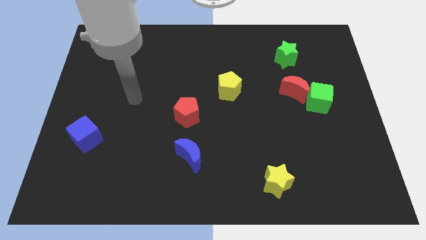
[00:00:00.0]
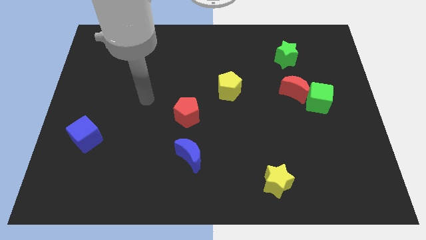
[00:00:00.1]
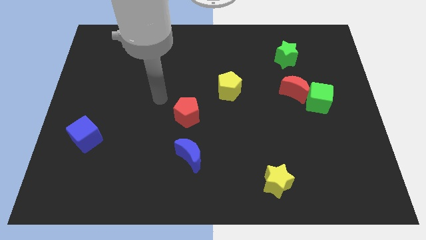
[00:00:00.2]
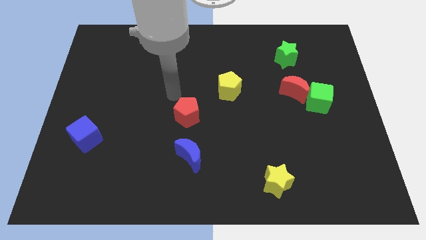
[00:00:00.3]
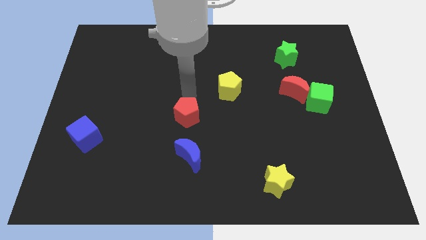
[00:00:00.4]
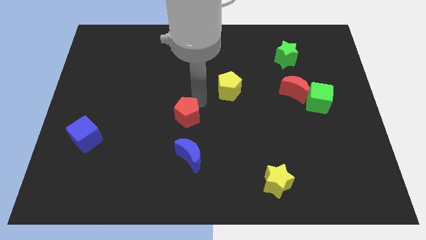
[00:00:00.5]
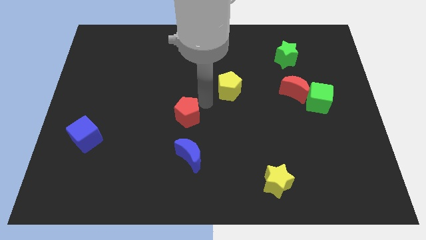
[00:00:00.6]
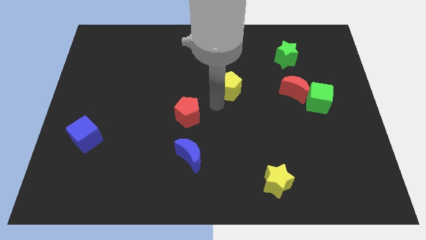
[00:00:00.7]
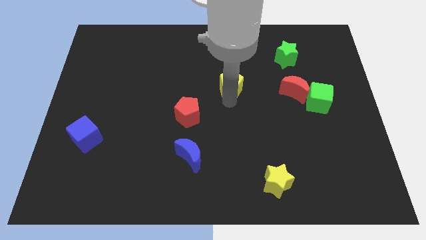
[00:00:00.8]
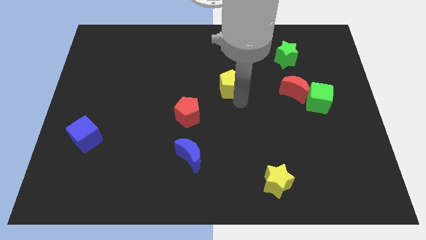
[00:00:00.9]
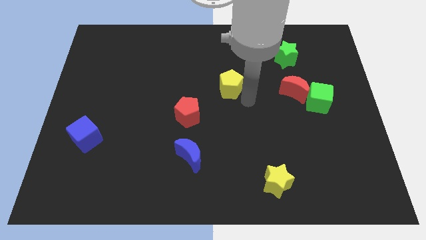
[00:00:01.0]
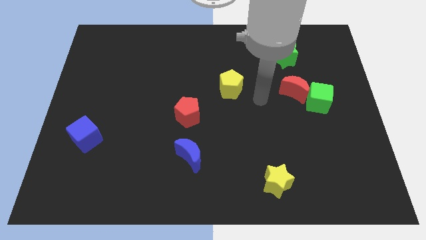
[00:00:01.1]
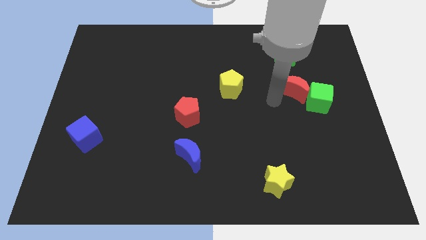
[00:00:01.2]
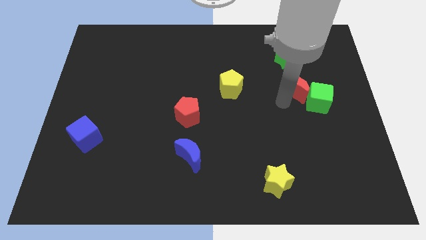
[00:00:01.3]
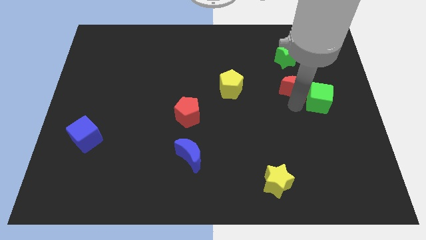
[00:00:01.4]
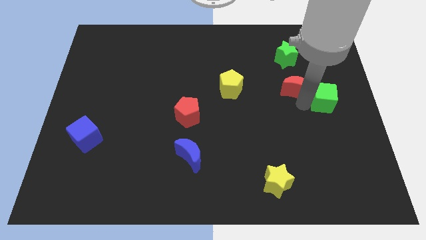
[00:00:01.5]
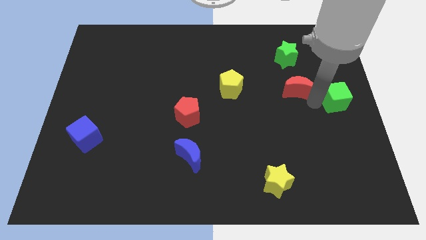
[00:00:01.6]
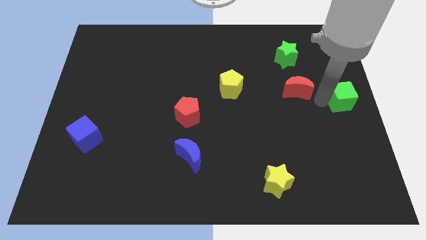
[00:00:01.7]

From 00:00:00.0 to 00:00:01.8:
pull the red moon apart from the green cube

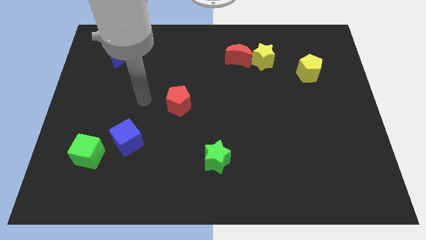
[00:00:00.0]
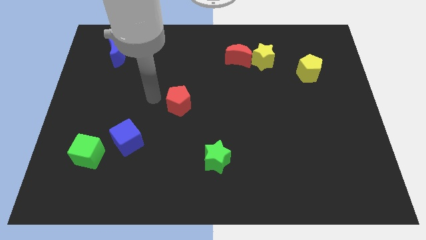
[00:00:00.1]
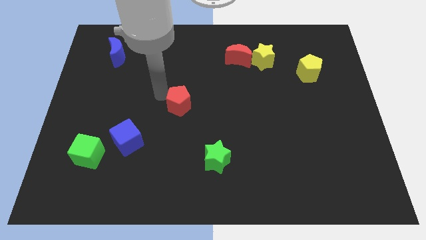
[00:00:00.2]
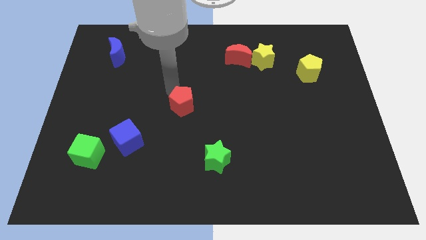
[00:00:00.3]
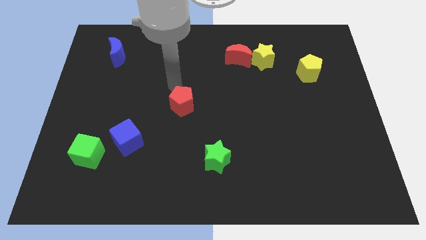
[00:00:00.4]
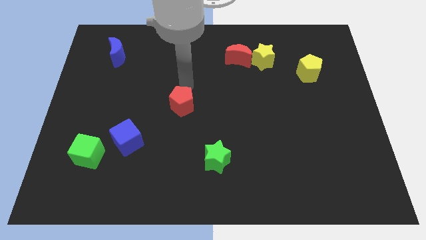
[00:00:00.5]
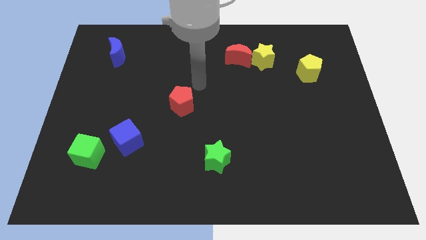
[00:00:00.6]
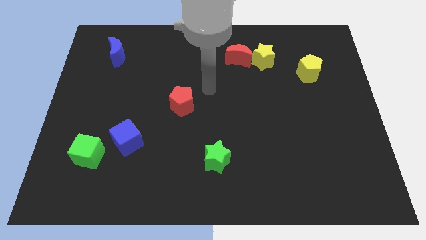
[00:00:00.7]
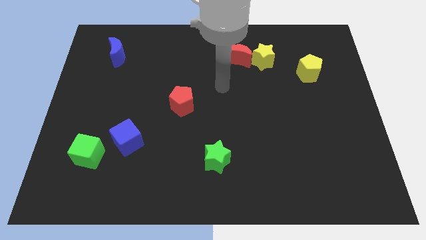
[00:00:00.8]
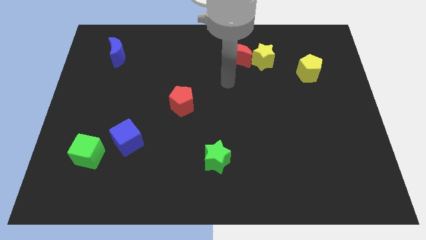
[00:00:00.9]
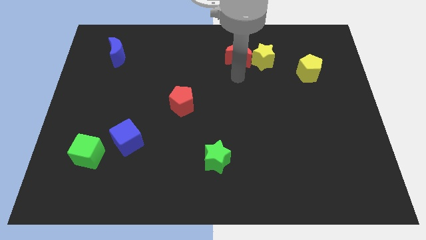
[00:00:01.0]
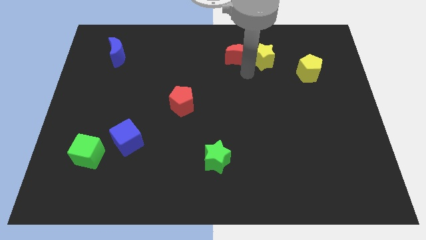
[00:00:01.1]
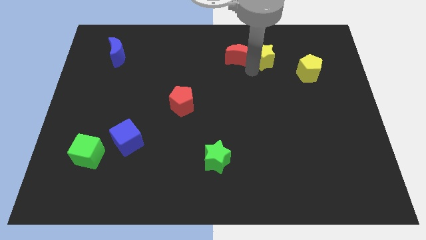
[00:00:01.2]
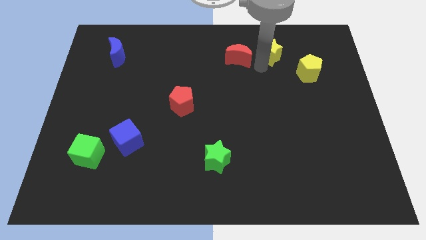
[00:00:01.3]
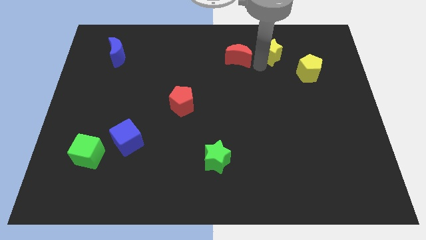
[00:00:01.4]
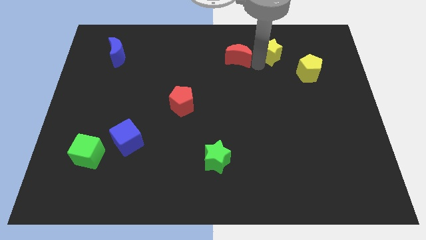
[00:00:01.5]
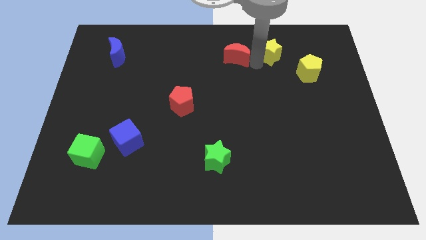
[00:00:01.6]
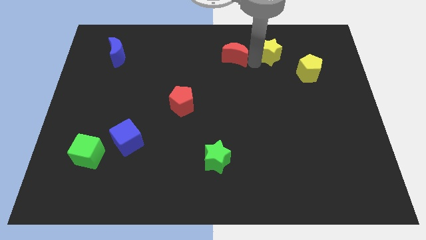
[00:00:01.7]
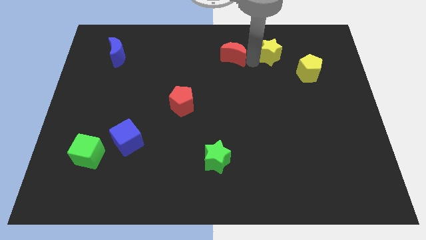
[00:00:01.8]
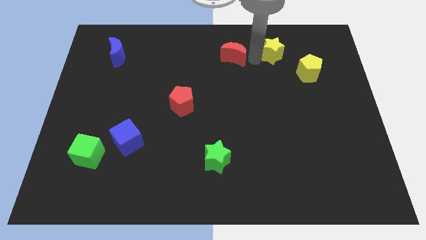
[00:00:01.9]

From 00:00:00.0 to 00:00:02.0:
pull the red moon apart from the yellow star

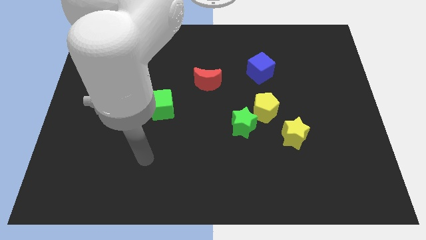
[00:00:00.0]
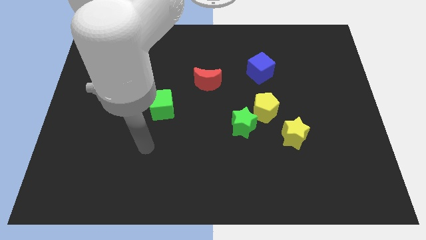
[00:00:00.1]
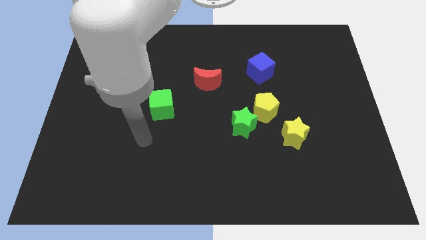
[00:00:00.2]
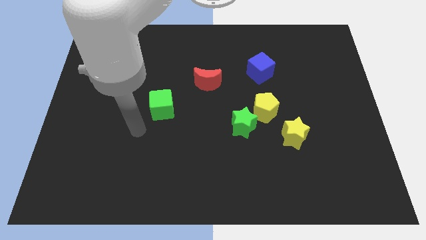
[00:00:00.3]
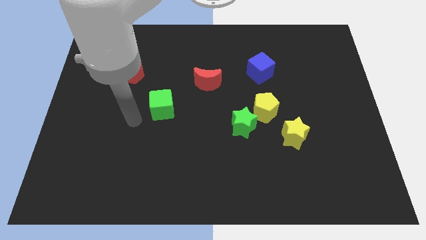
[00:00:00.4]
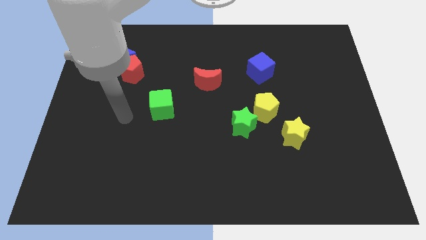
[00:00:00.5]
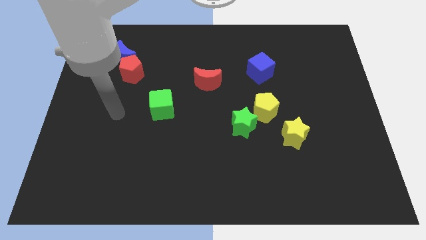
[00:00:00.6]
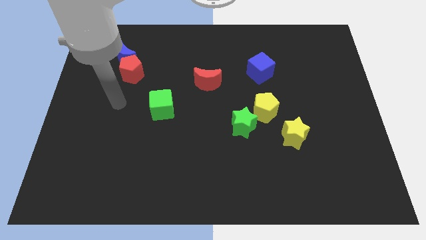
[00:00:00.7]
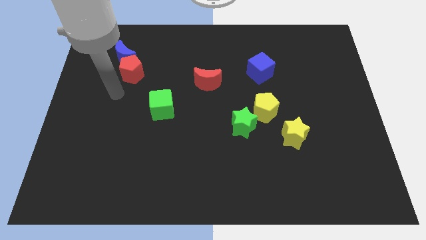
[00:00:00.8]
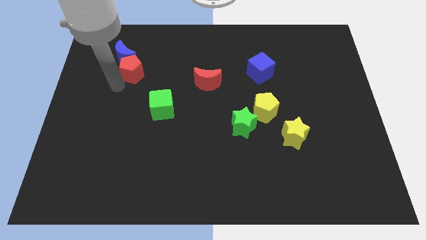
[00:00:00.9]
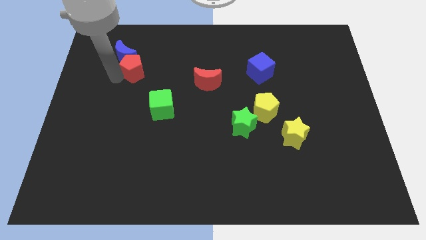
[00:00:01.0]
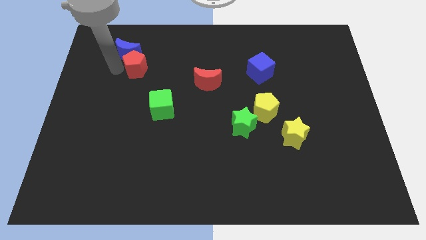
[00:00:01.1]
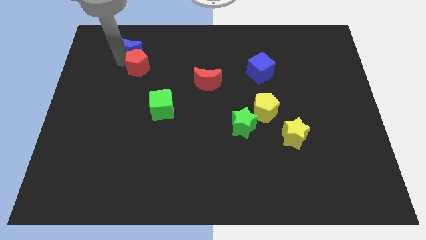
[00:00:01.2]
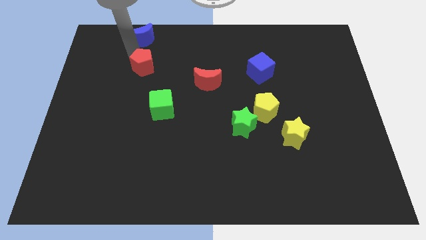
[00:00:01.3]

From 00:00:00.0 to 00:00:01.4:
move the red pentagon away from the blue moon

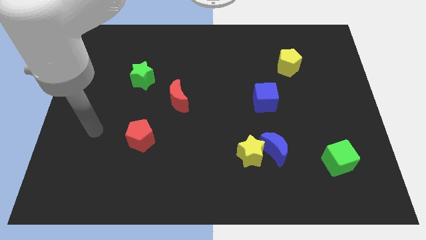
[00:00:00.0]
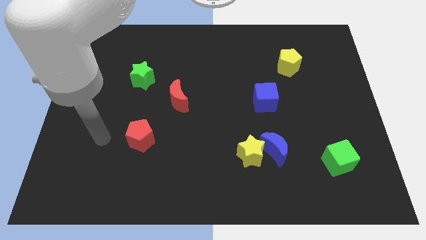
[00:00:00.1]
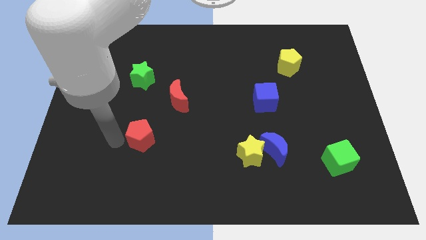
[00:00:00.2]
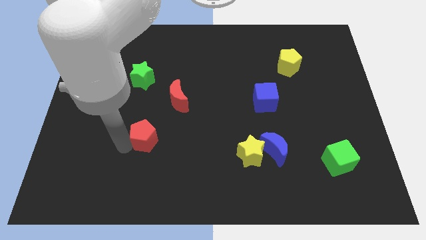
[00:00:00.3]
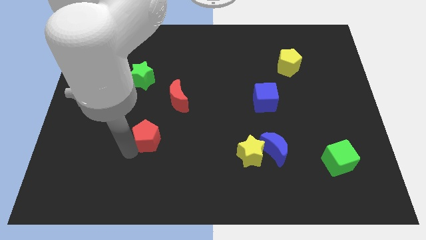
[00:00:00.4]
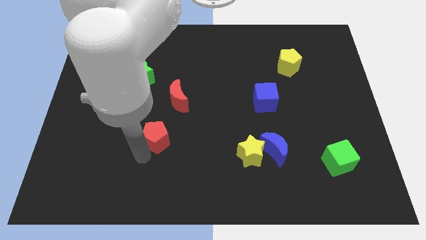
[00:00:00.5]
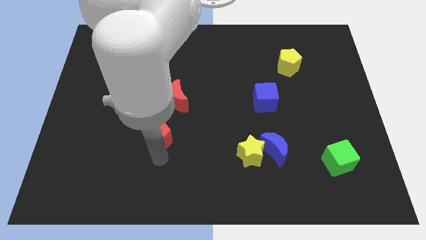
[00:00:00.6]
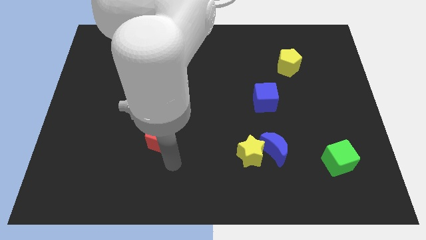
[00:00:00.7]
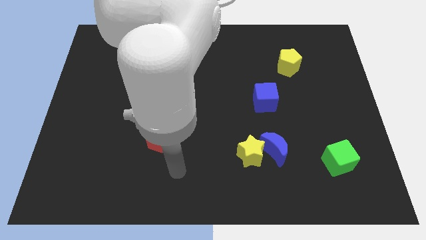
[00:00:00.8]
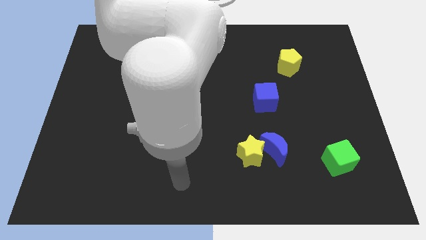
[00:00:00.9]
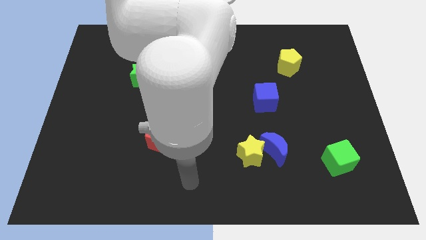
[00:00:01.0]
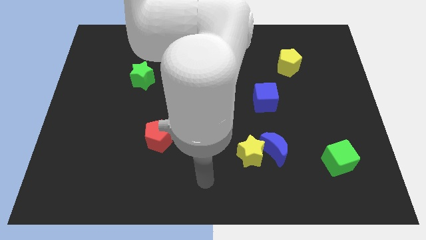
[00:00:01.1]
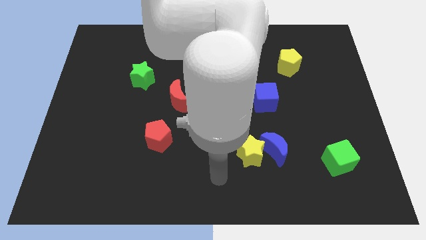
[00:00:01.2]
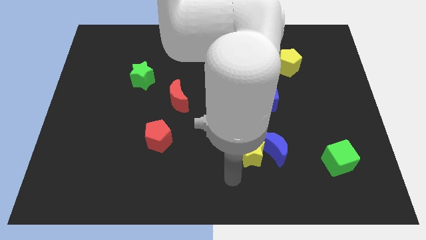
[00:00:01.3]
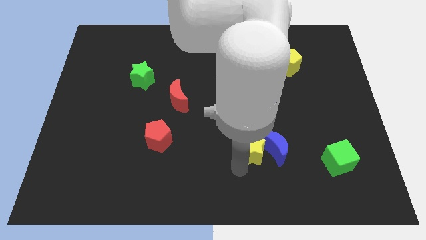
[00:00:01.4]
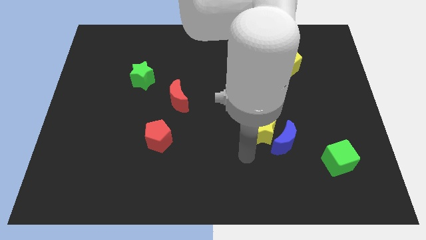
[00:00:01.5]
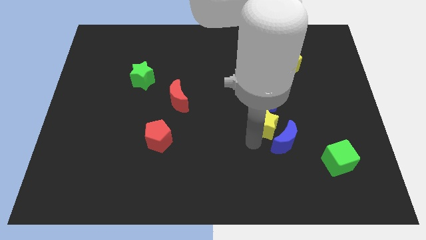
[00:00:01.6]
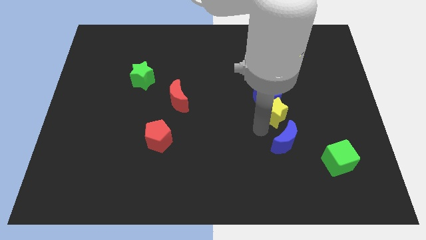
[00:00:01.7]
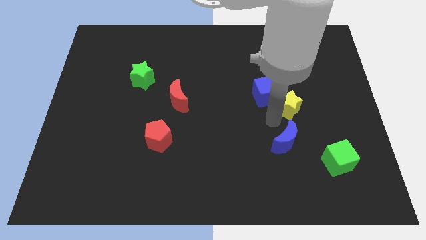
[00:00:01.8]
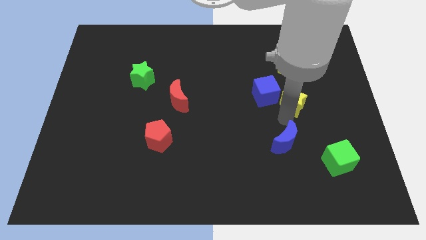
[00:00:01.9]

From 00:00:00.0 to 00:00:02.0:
pull the blue moon apart from the yellow star

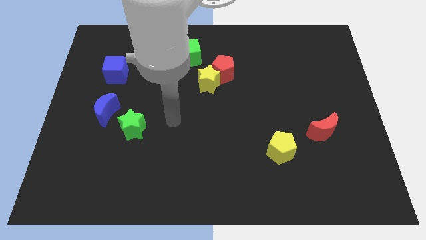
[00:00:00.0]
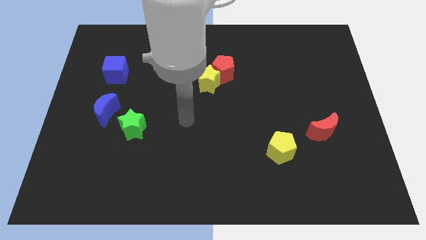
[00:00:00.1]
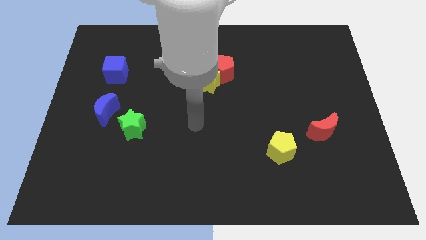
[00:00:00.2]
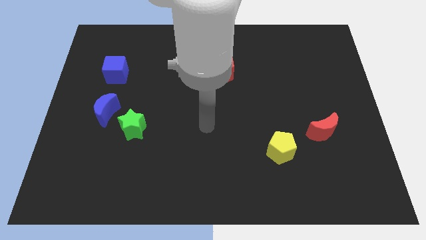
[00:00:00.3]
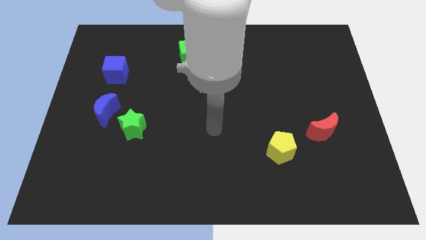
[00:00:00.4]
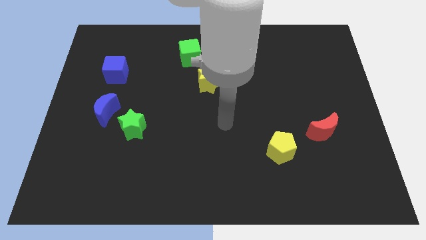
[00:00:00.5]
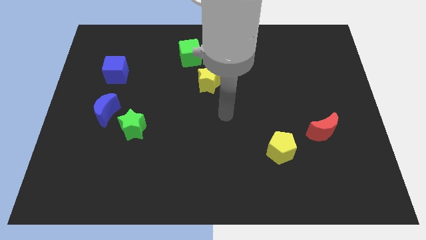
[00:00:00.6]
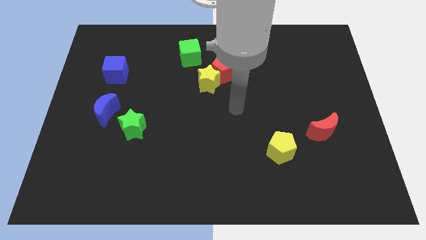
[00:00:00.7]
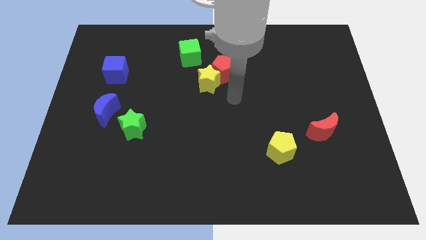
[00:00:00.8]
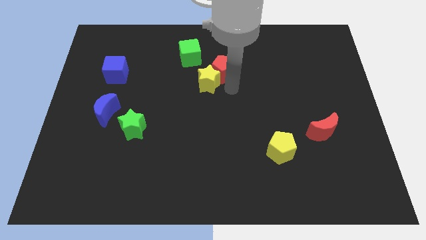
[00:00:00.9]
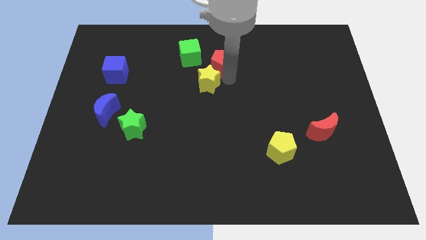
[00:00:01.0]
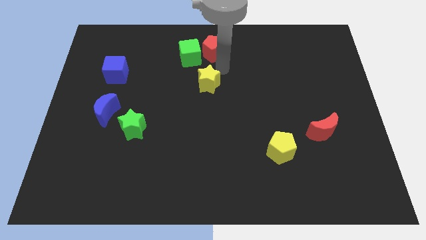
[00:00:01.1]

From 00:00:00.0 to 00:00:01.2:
separate the yellow star from the red pentagon

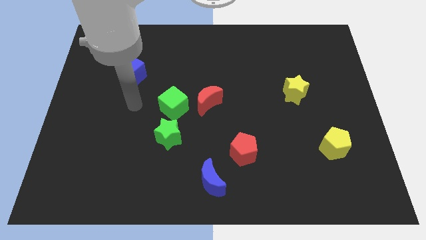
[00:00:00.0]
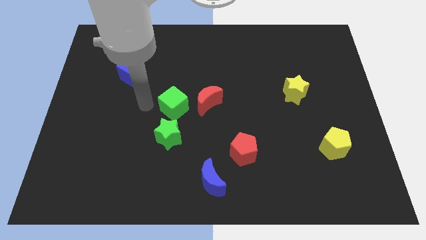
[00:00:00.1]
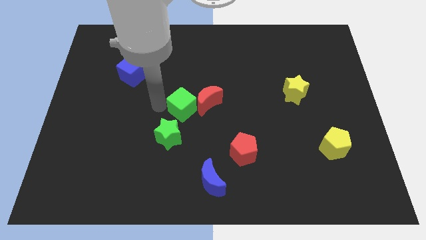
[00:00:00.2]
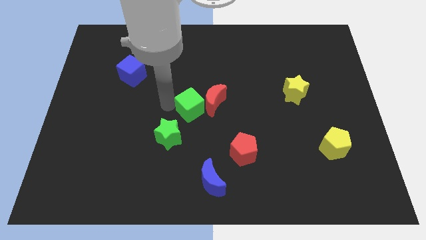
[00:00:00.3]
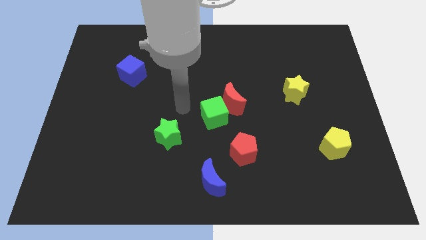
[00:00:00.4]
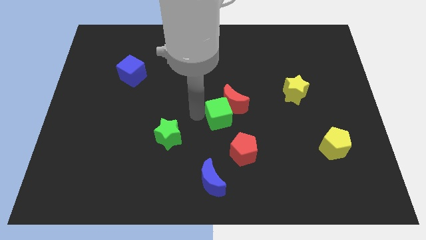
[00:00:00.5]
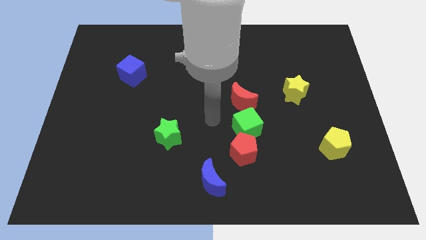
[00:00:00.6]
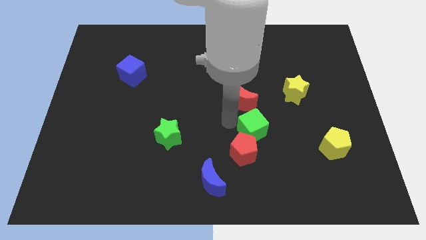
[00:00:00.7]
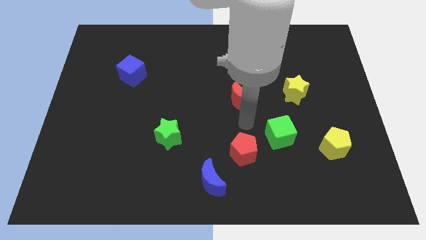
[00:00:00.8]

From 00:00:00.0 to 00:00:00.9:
separate the red moon from the green cube
